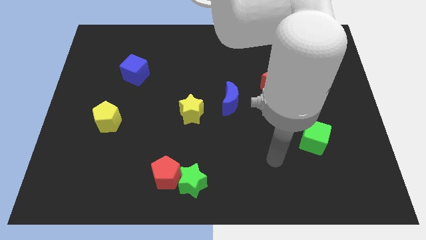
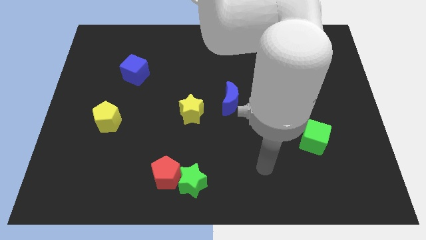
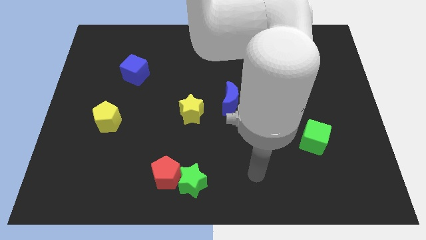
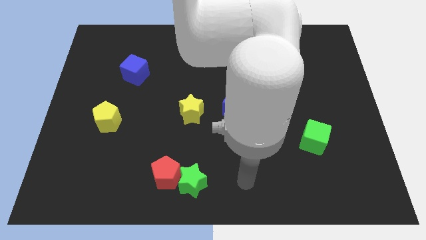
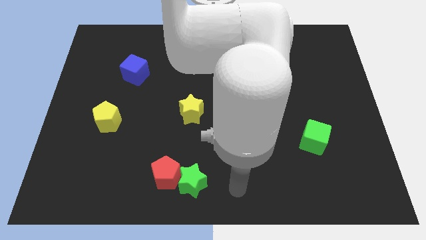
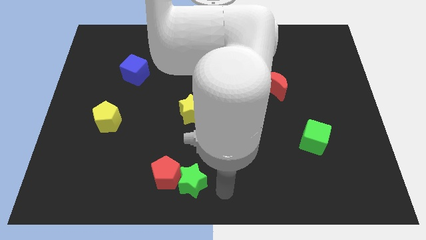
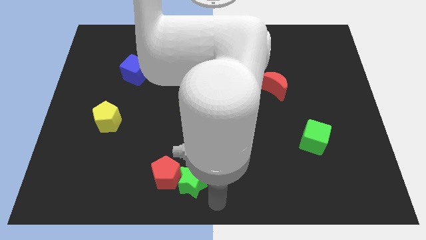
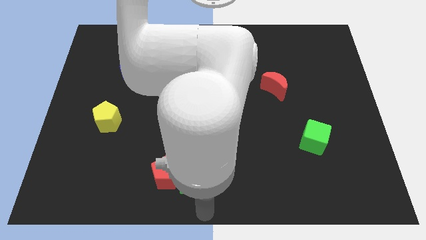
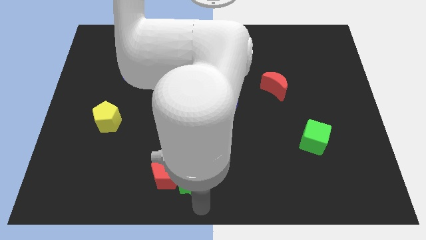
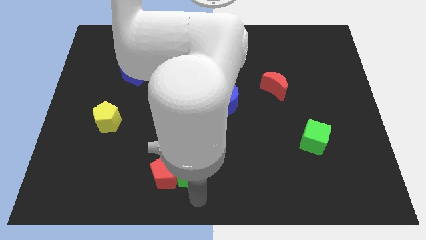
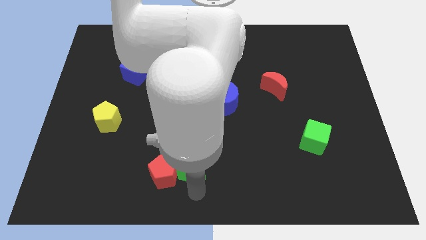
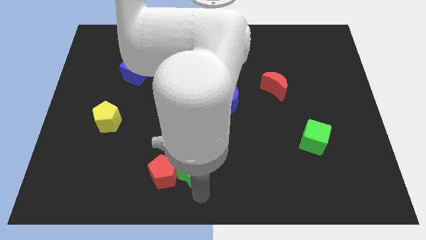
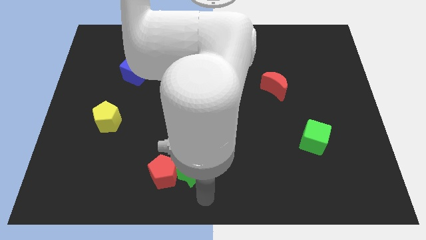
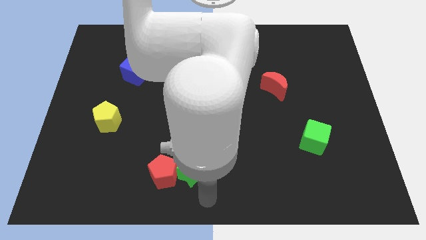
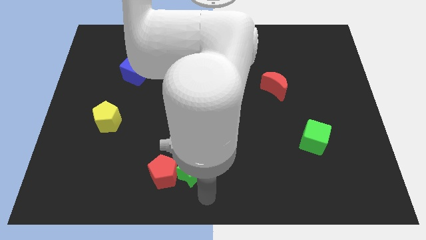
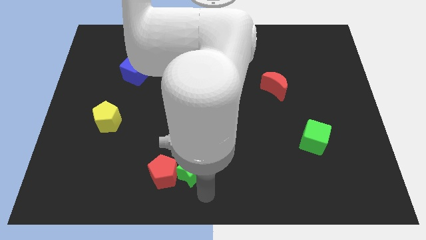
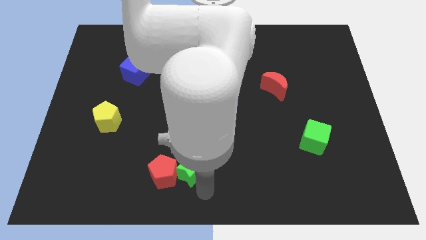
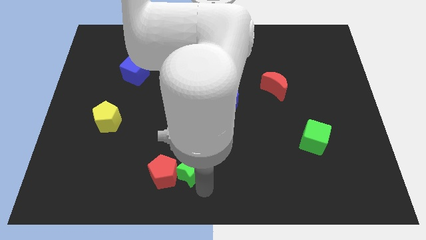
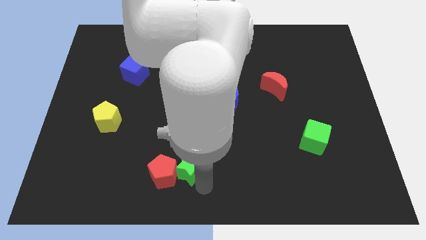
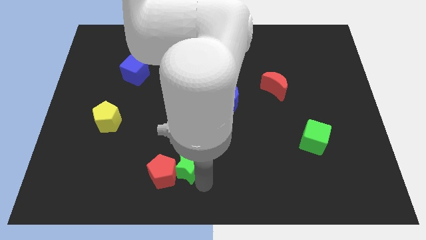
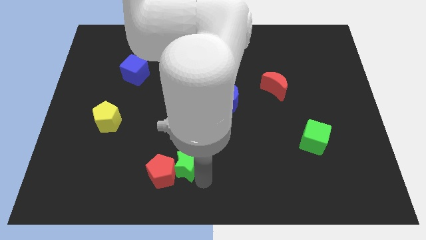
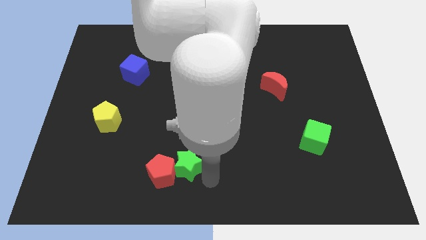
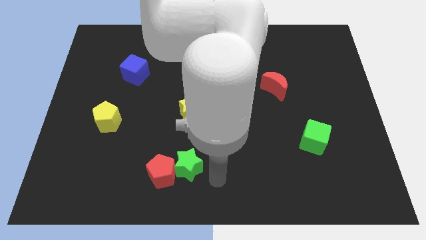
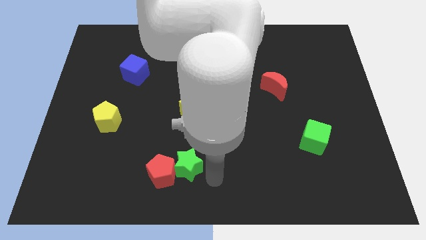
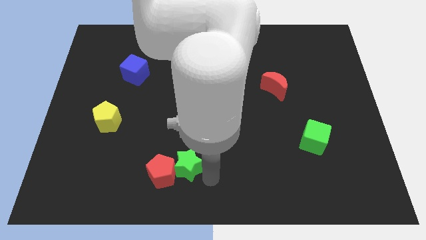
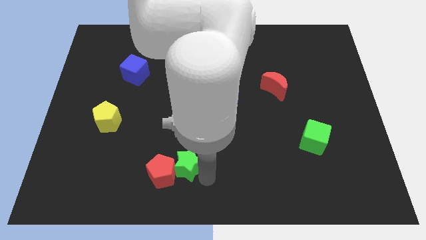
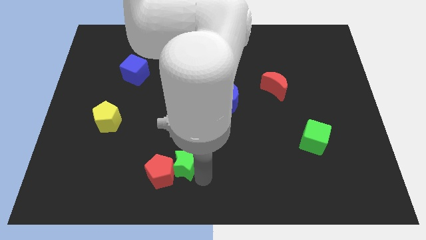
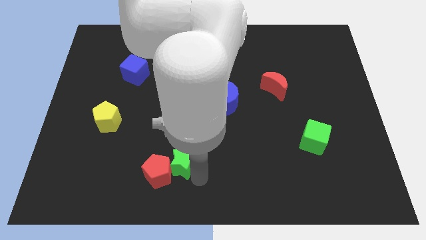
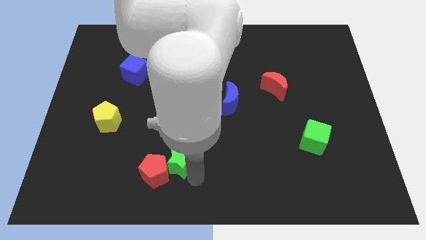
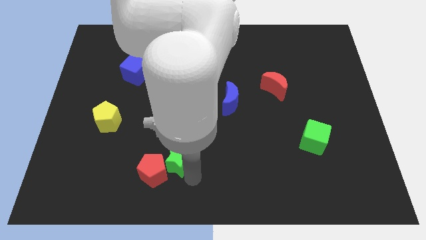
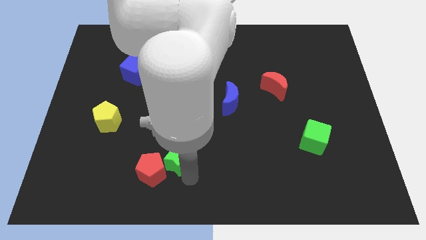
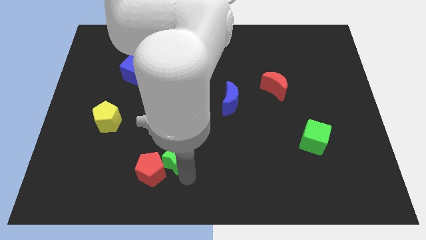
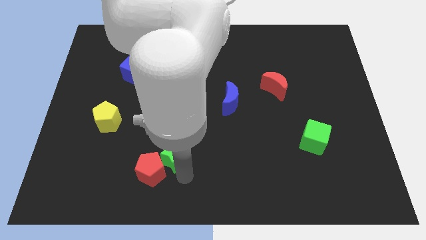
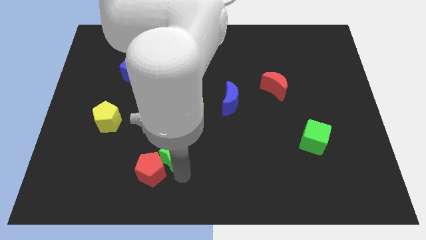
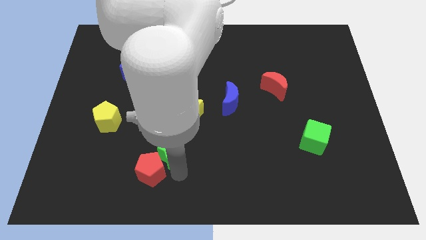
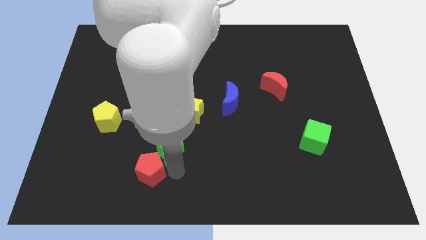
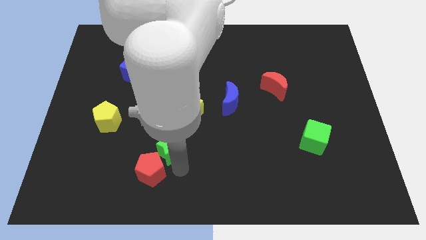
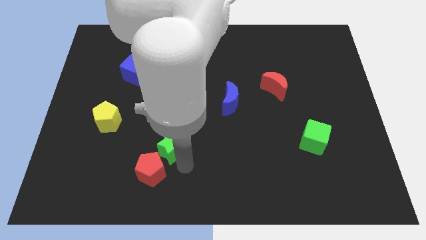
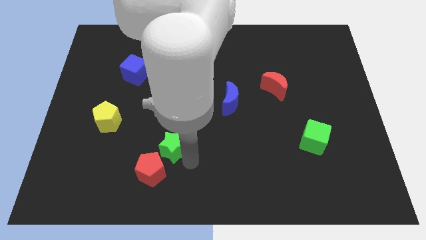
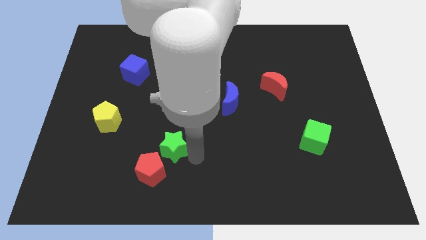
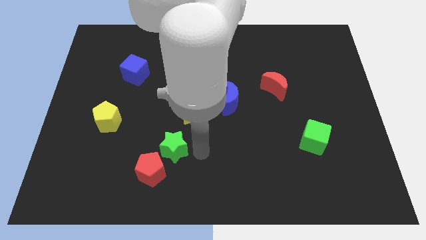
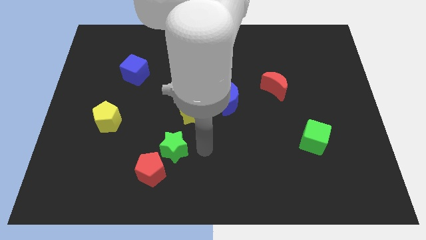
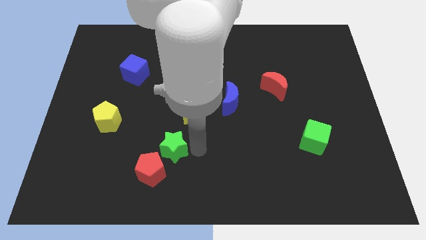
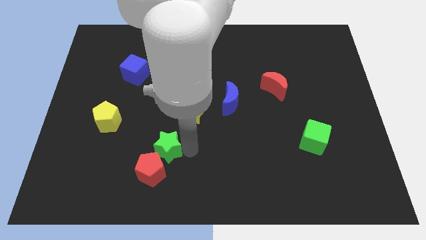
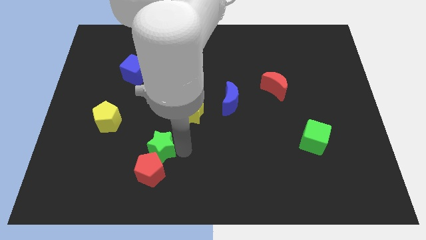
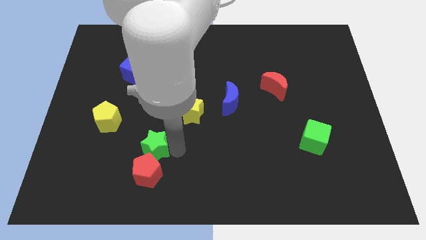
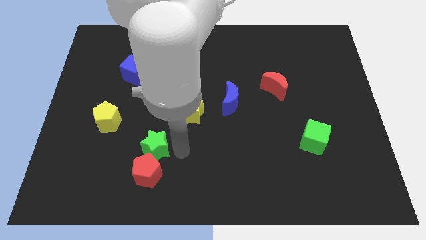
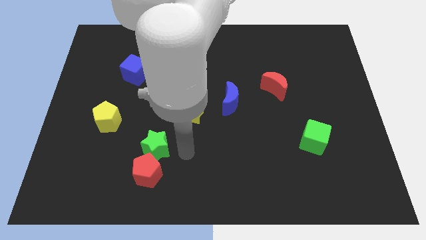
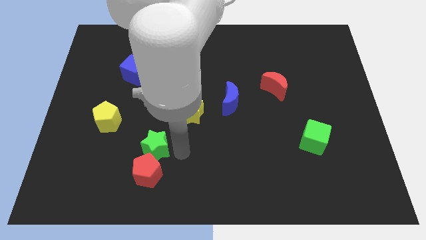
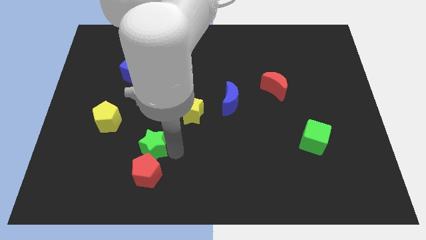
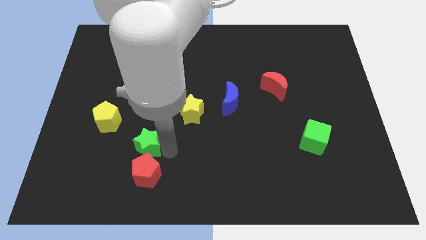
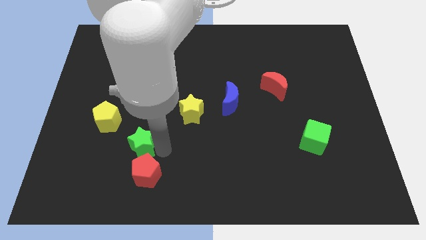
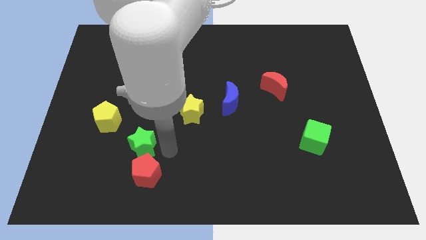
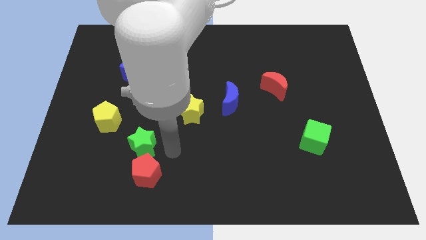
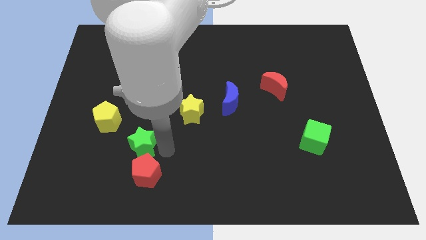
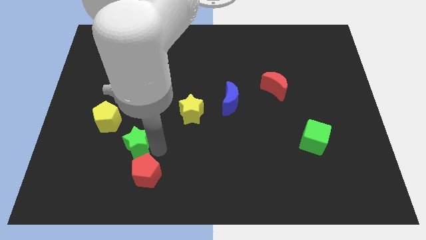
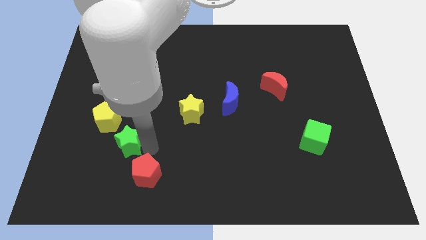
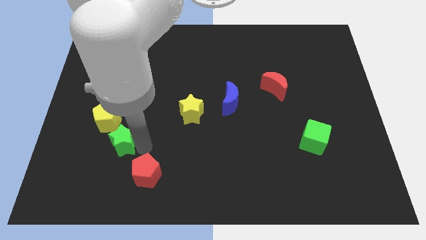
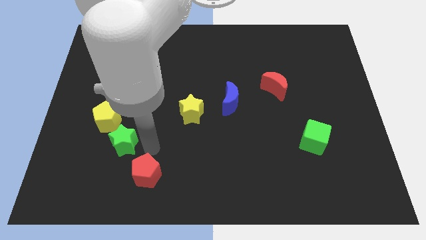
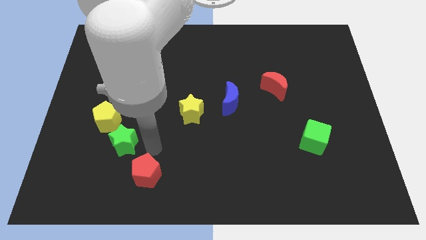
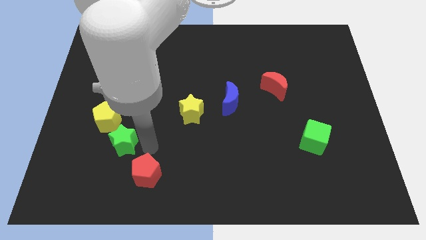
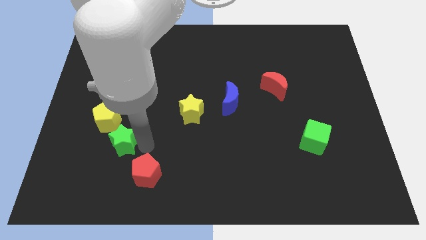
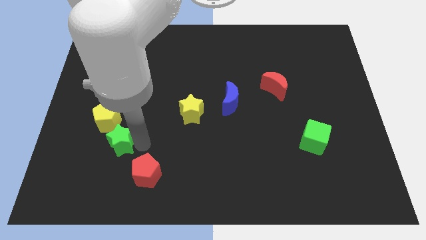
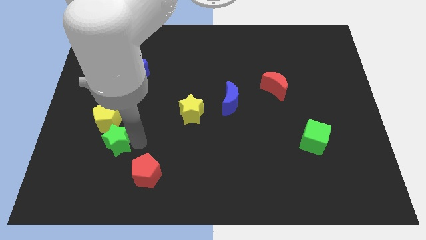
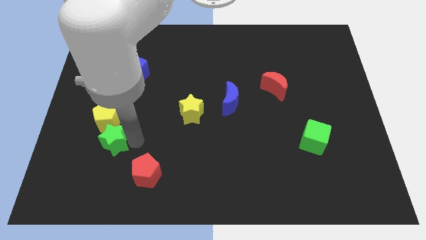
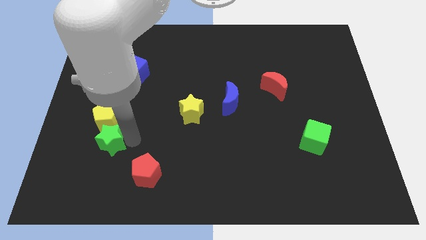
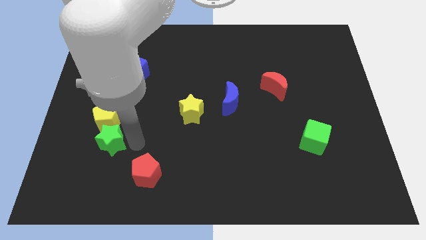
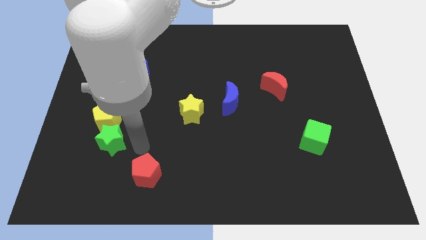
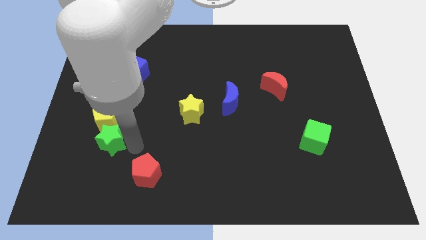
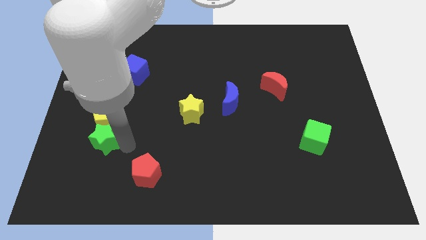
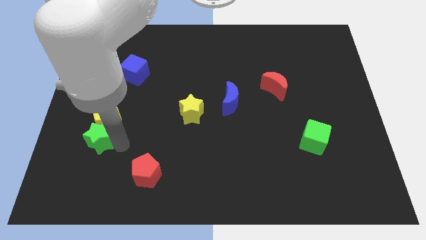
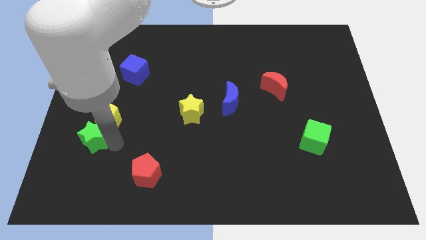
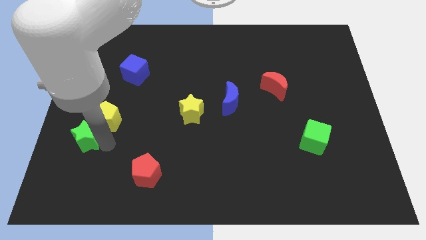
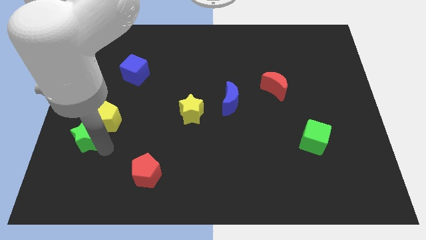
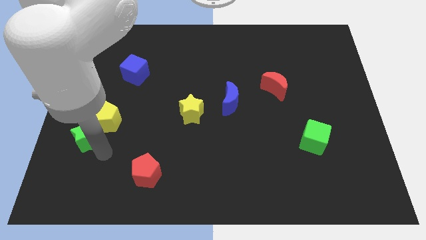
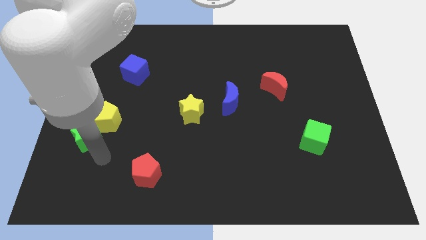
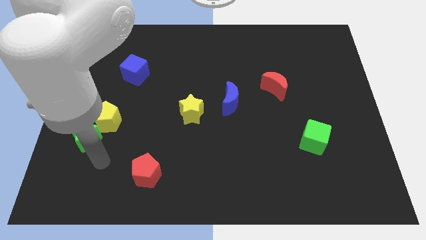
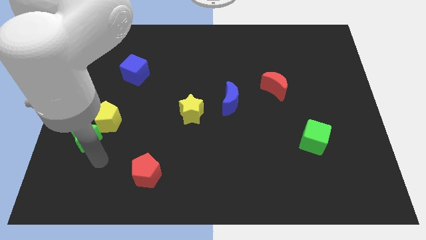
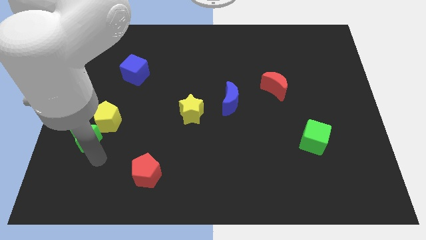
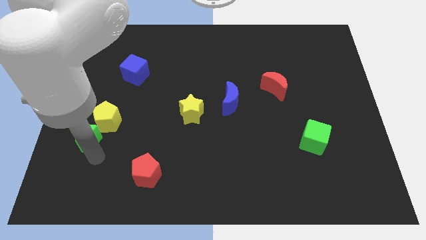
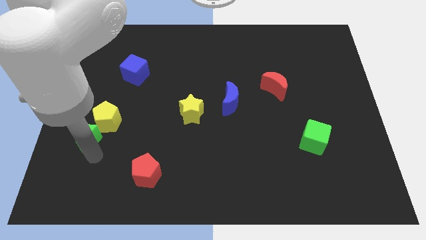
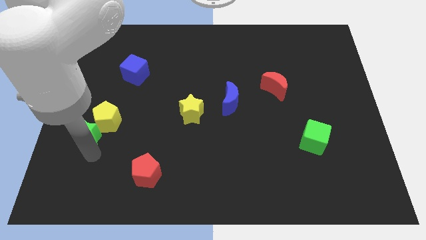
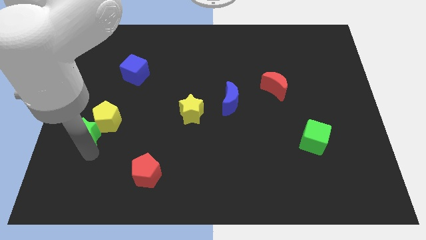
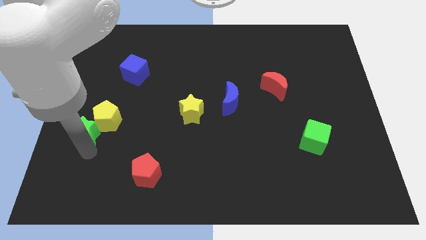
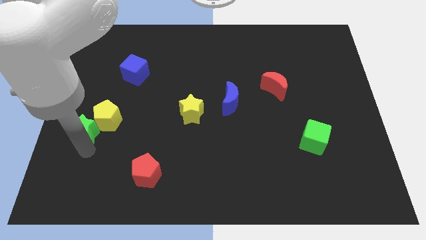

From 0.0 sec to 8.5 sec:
move the green star to the center left
